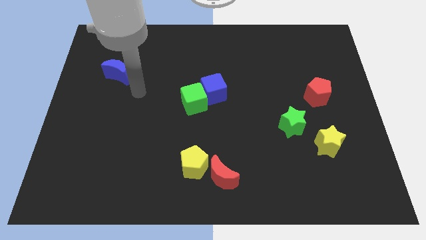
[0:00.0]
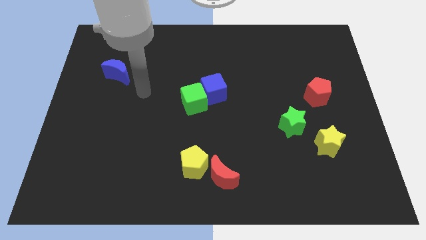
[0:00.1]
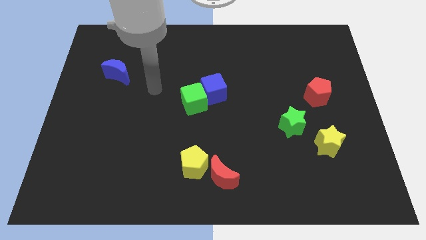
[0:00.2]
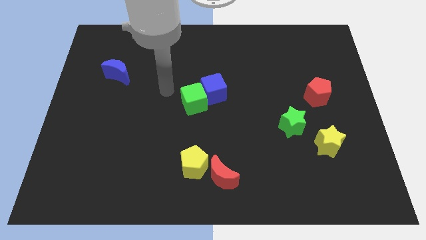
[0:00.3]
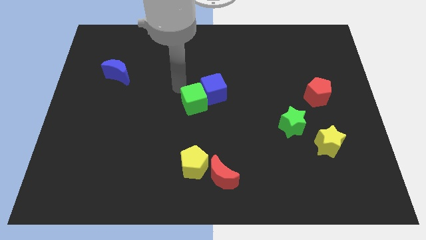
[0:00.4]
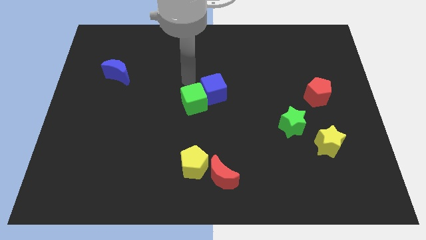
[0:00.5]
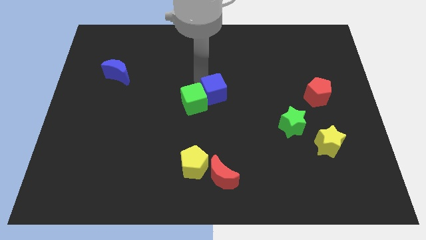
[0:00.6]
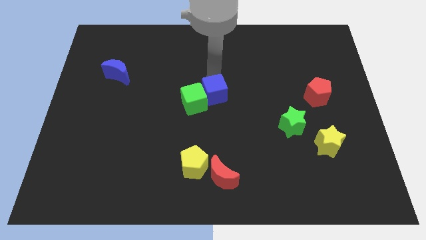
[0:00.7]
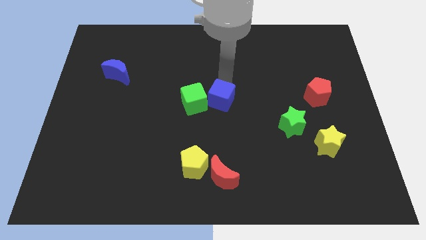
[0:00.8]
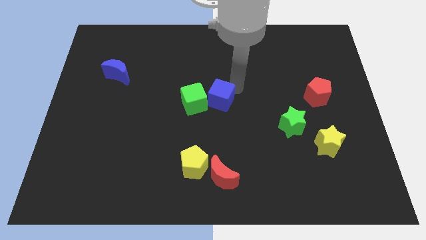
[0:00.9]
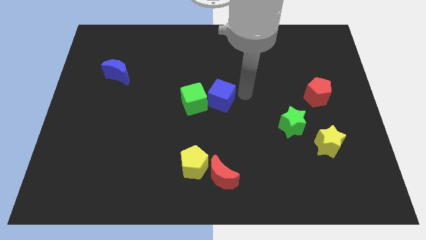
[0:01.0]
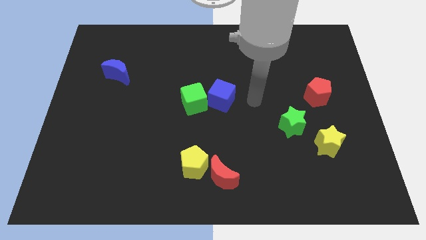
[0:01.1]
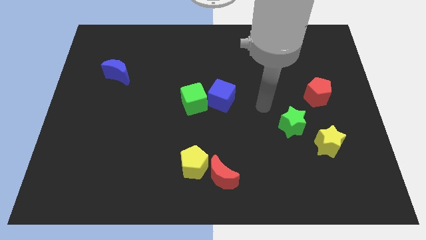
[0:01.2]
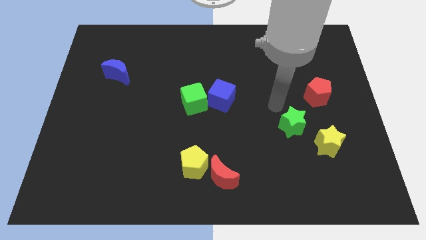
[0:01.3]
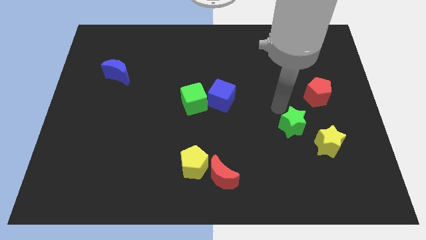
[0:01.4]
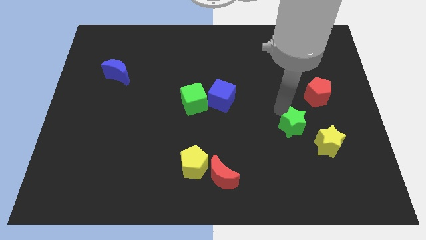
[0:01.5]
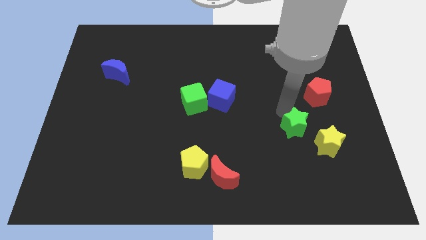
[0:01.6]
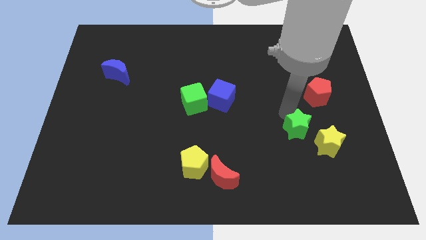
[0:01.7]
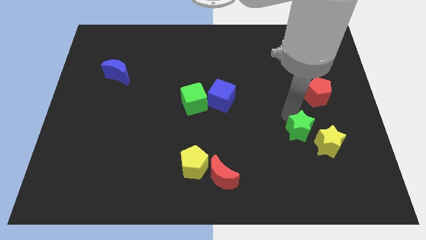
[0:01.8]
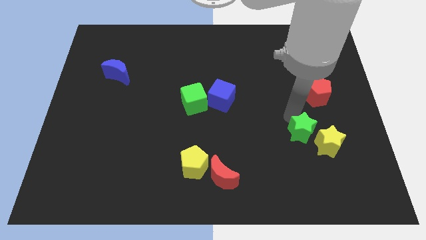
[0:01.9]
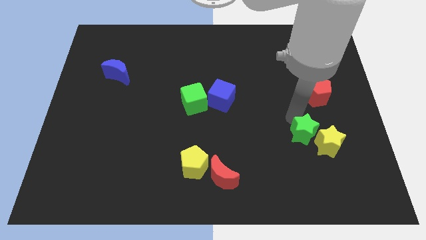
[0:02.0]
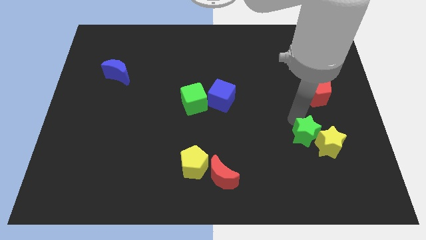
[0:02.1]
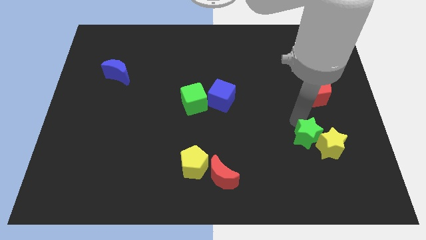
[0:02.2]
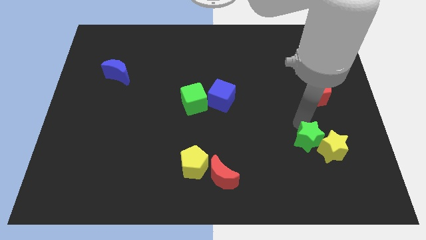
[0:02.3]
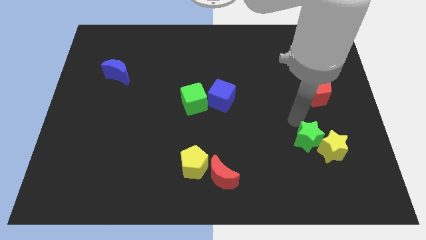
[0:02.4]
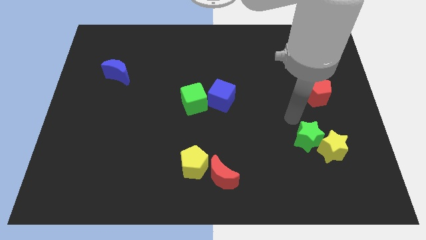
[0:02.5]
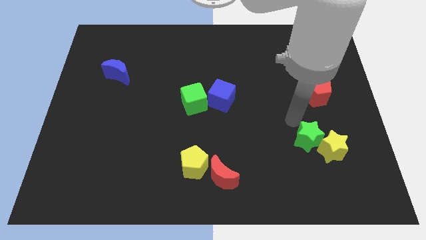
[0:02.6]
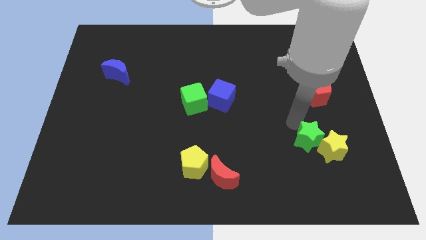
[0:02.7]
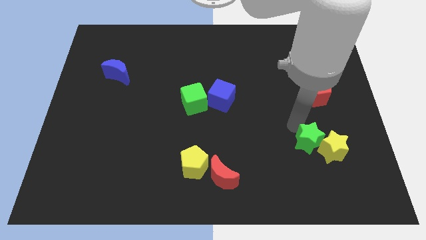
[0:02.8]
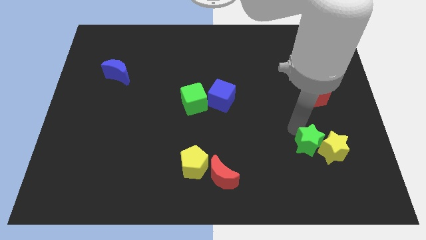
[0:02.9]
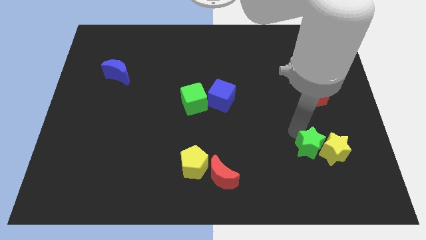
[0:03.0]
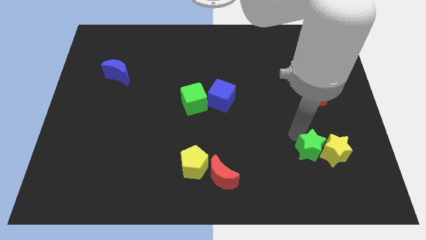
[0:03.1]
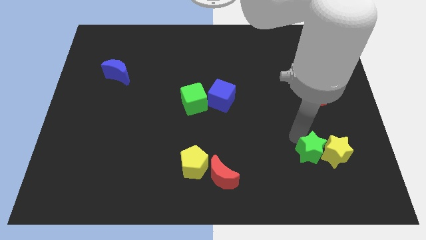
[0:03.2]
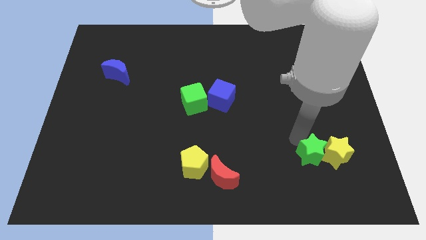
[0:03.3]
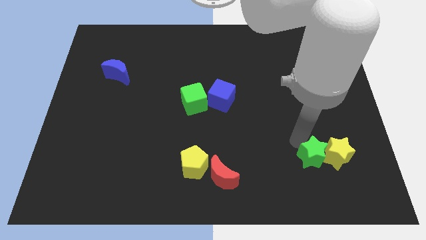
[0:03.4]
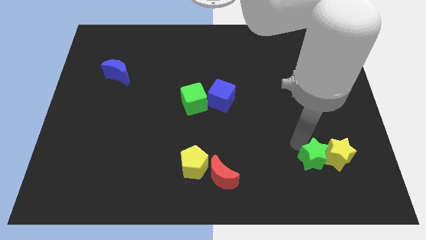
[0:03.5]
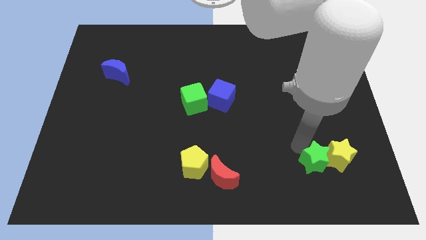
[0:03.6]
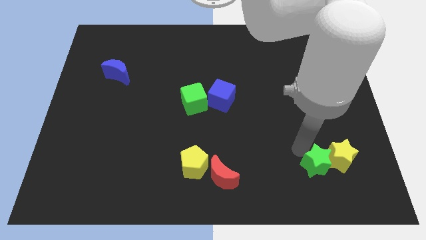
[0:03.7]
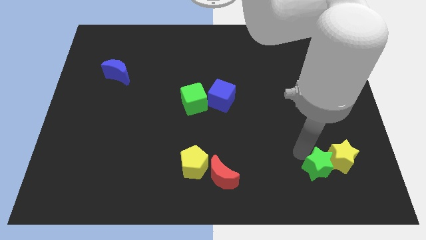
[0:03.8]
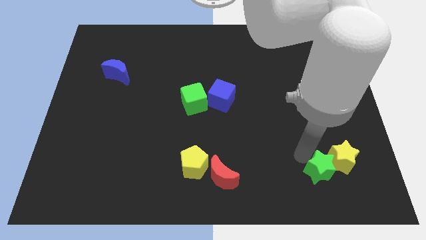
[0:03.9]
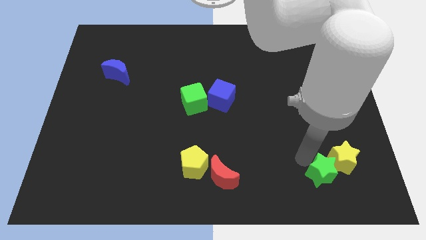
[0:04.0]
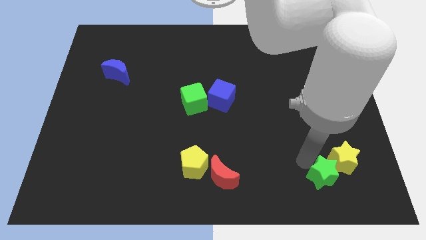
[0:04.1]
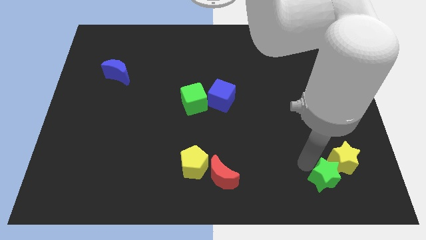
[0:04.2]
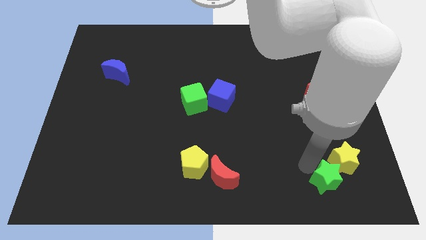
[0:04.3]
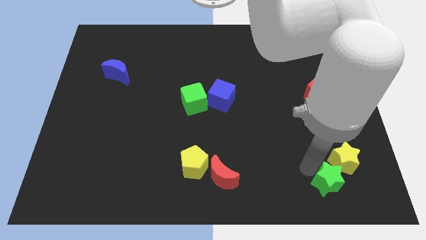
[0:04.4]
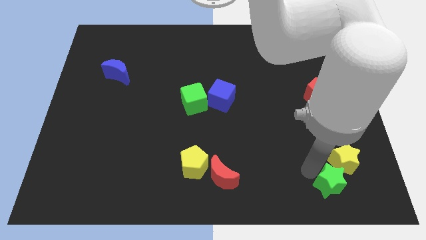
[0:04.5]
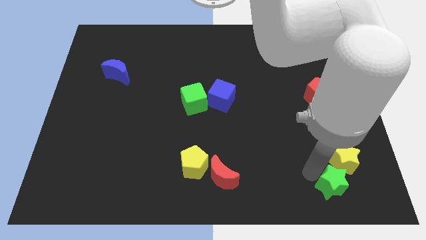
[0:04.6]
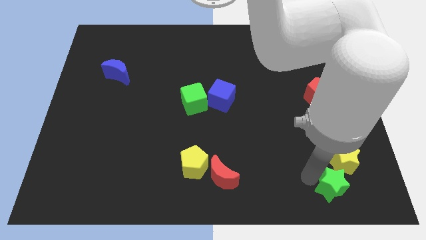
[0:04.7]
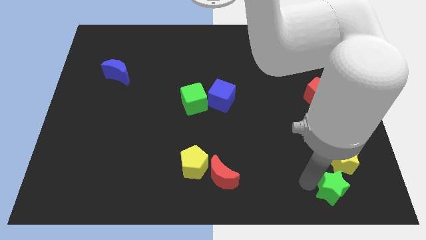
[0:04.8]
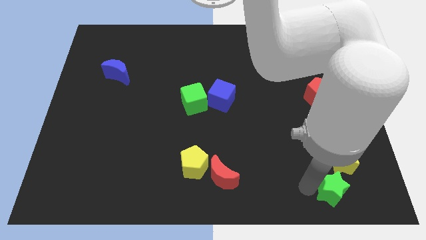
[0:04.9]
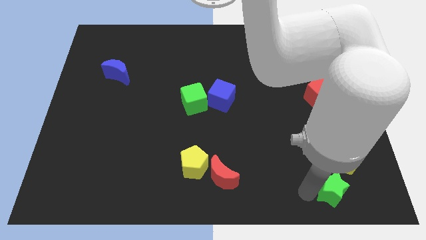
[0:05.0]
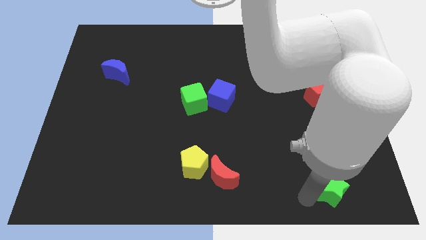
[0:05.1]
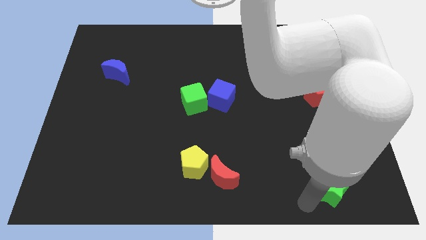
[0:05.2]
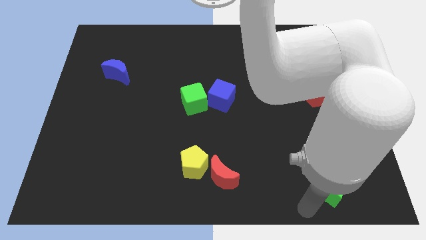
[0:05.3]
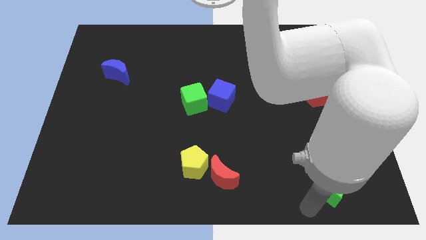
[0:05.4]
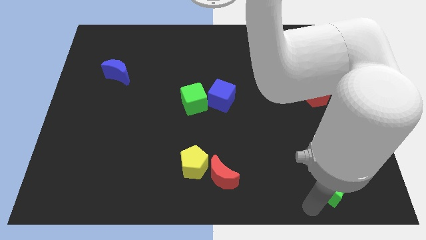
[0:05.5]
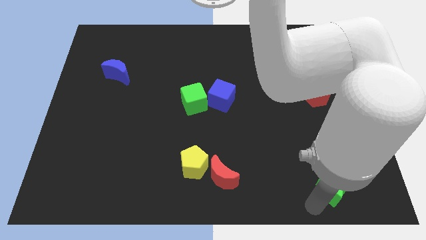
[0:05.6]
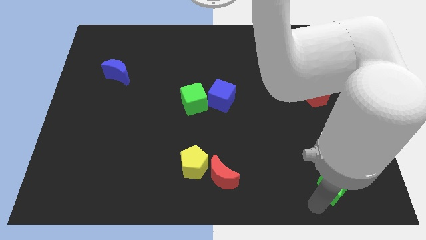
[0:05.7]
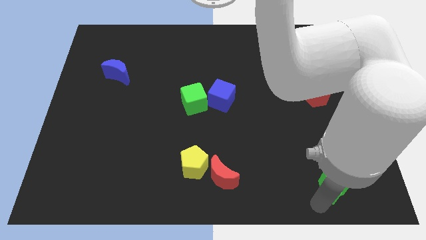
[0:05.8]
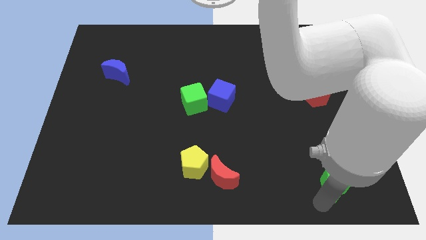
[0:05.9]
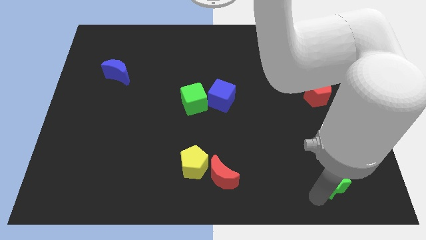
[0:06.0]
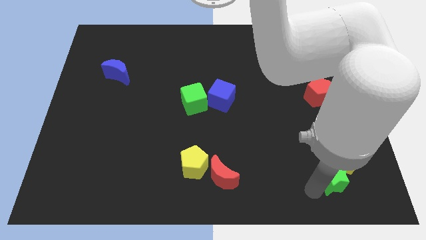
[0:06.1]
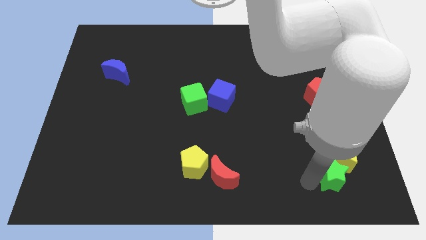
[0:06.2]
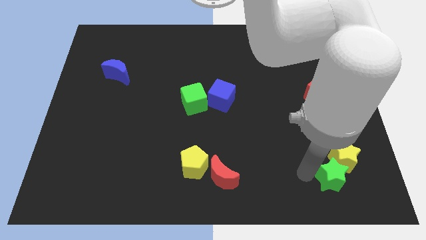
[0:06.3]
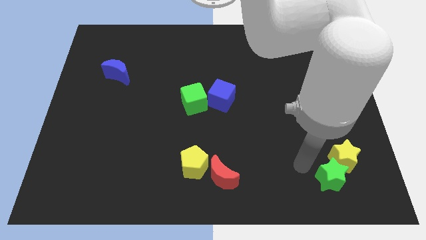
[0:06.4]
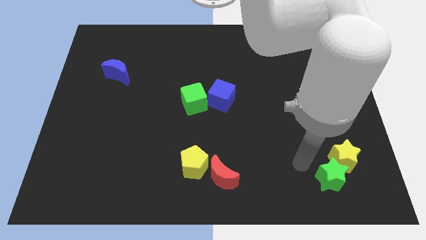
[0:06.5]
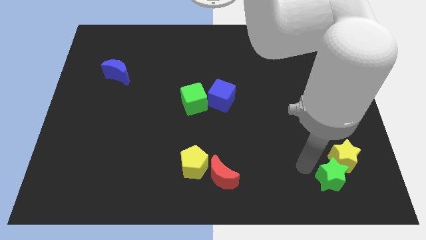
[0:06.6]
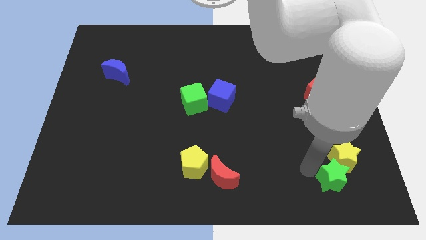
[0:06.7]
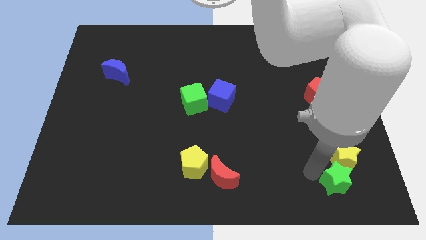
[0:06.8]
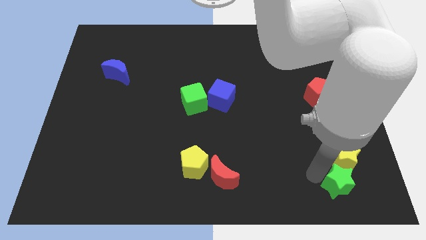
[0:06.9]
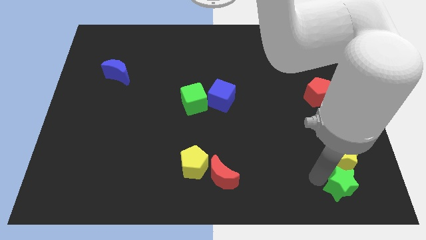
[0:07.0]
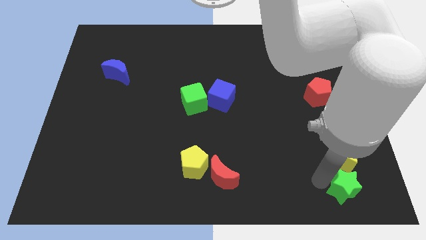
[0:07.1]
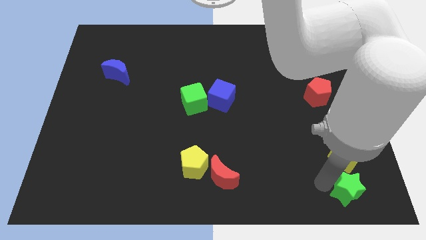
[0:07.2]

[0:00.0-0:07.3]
move the green star to the bottom right of the board

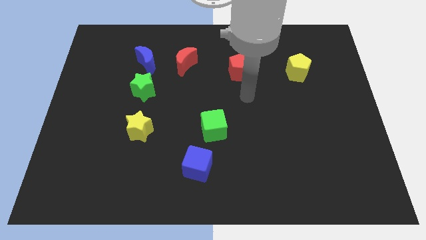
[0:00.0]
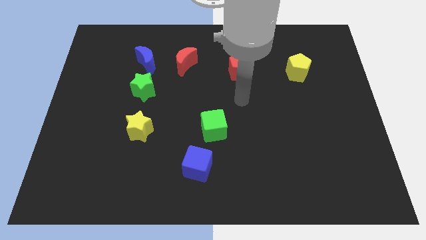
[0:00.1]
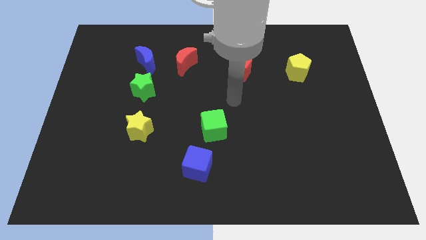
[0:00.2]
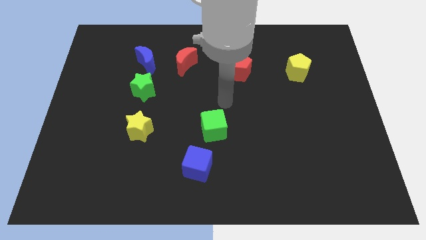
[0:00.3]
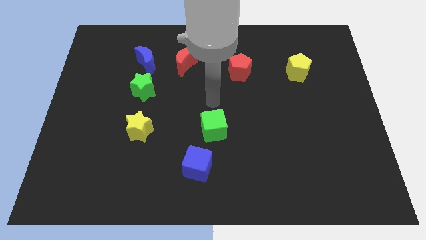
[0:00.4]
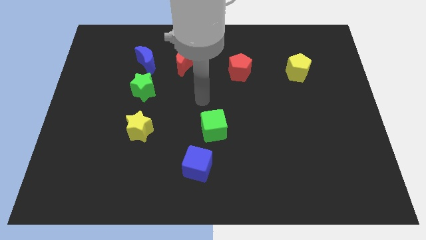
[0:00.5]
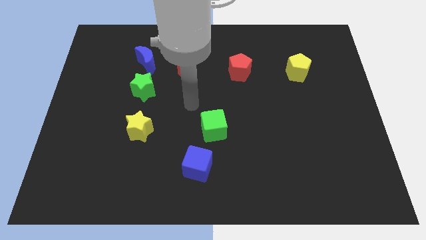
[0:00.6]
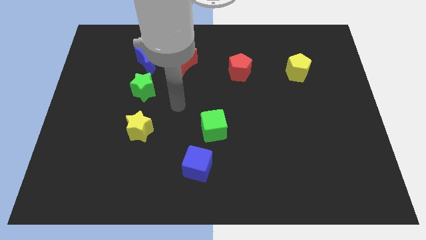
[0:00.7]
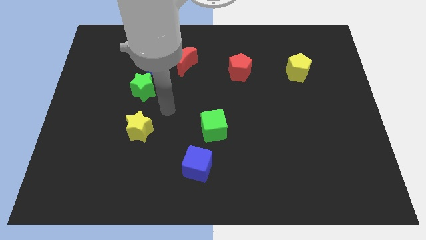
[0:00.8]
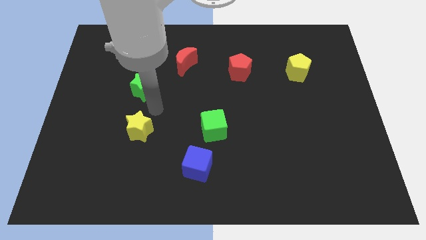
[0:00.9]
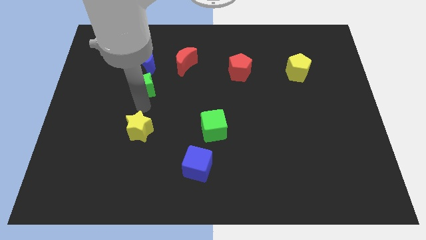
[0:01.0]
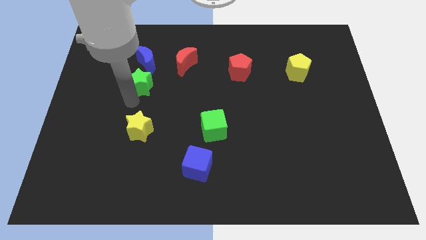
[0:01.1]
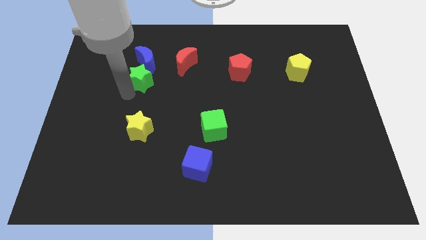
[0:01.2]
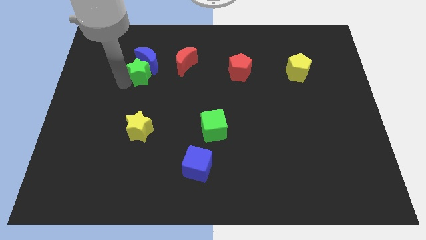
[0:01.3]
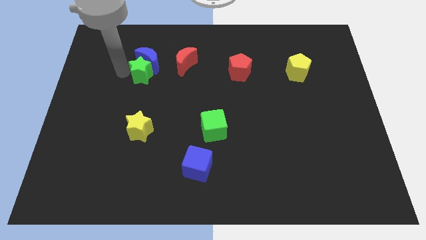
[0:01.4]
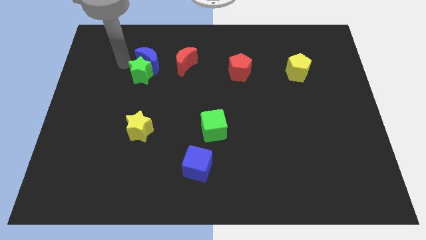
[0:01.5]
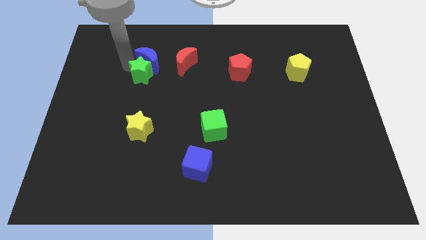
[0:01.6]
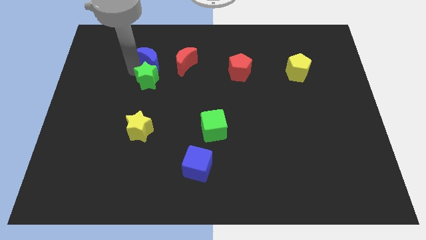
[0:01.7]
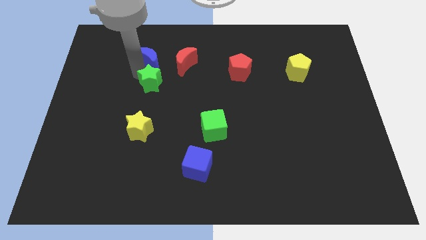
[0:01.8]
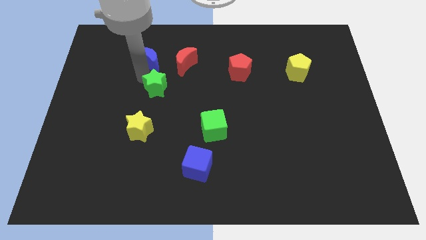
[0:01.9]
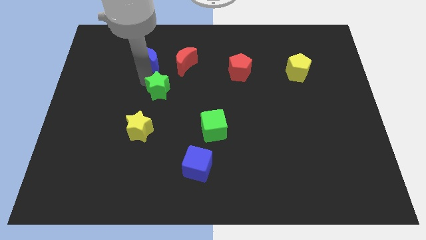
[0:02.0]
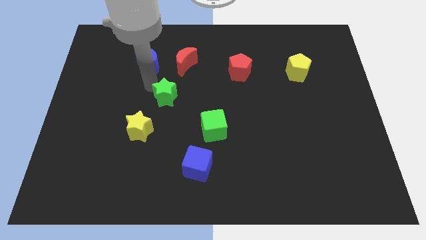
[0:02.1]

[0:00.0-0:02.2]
put the green star to the center
